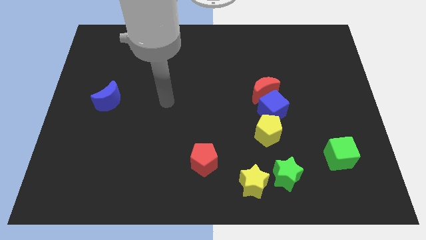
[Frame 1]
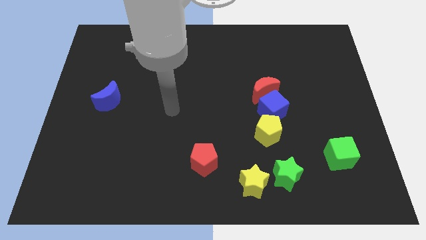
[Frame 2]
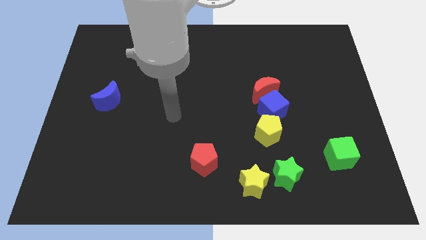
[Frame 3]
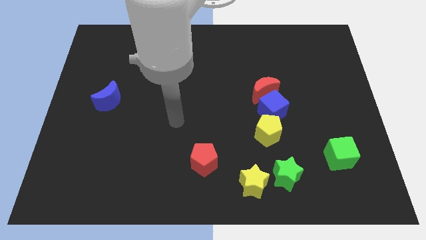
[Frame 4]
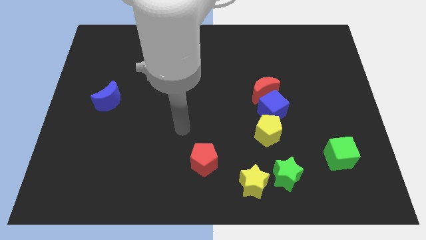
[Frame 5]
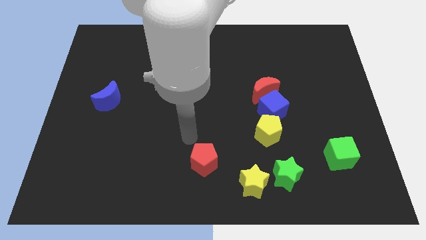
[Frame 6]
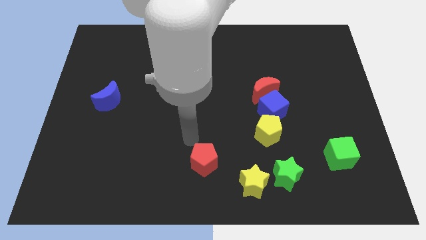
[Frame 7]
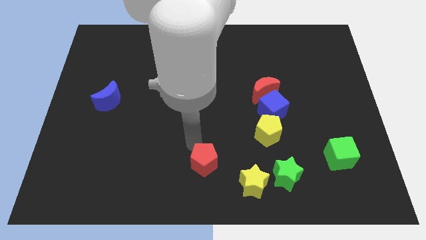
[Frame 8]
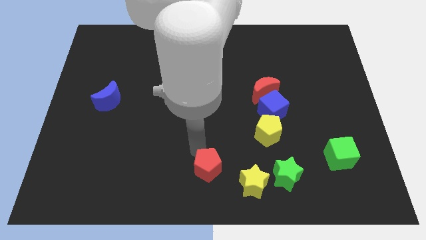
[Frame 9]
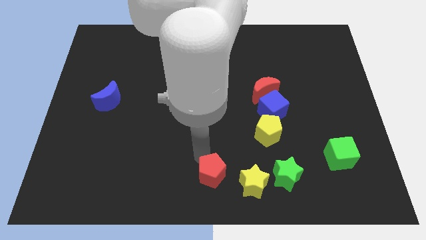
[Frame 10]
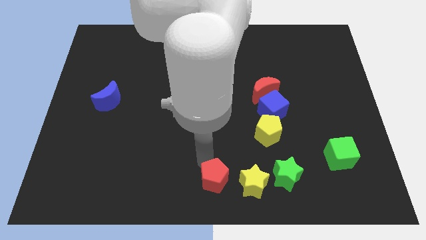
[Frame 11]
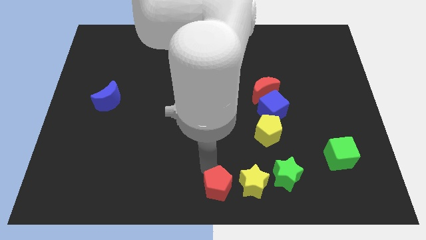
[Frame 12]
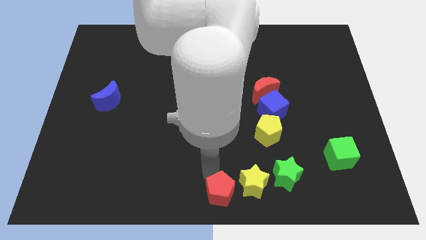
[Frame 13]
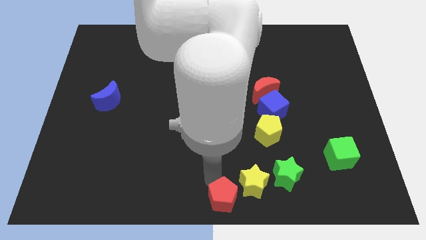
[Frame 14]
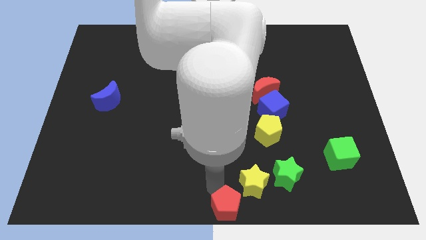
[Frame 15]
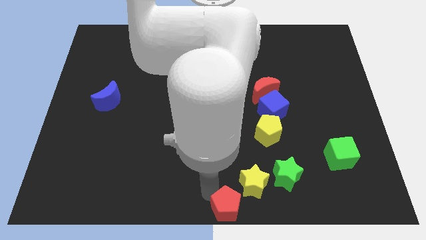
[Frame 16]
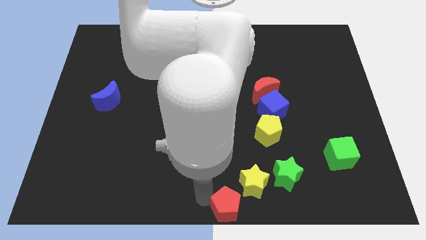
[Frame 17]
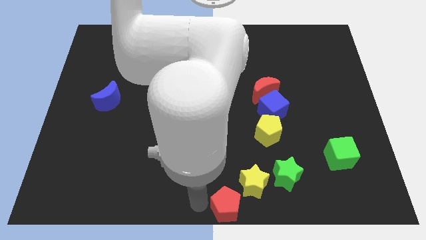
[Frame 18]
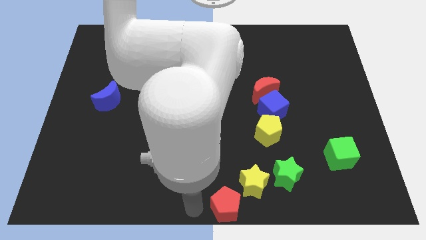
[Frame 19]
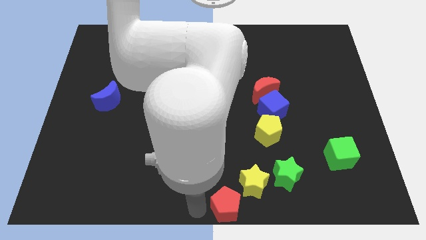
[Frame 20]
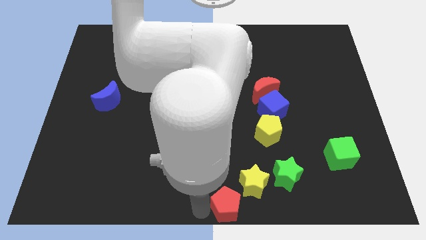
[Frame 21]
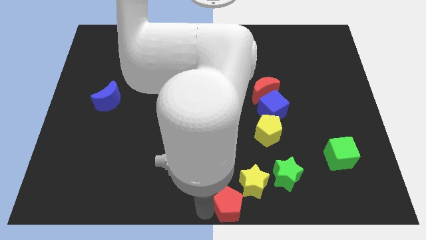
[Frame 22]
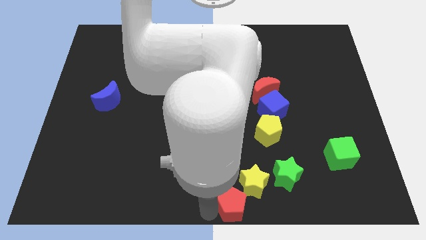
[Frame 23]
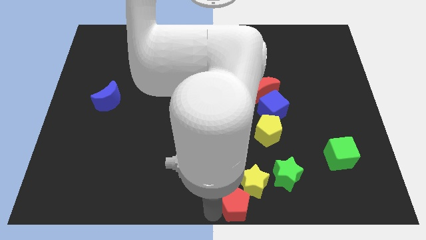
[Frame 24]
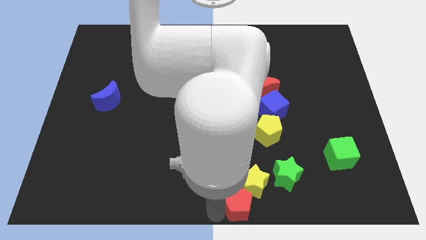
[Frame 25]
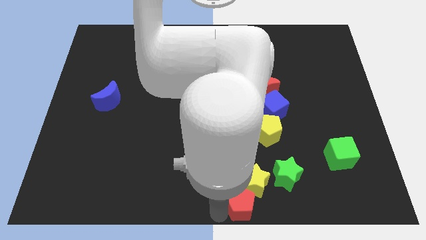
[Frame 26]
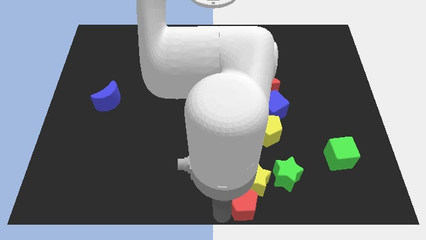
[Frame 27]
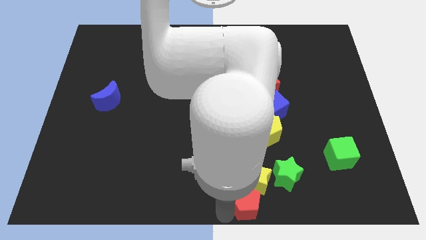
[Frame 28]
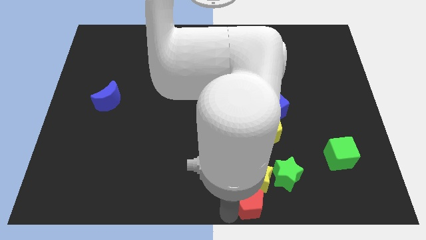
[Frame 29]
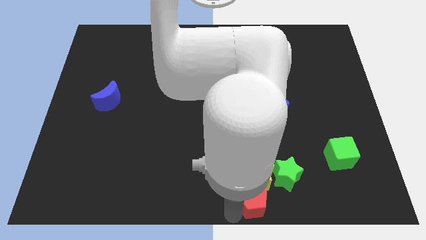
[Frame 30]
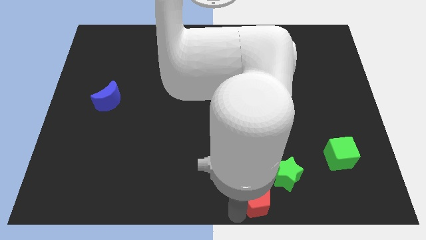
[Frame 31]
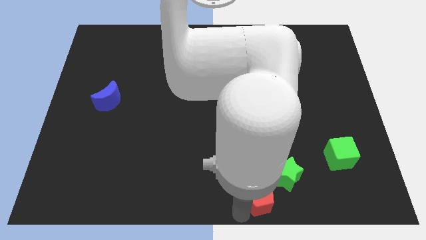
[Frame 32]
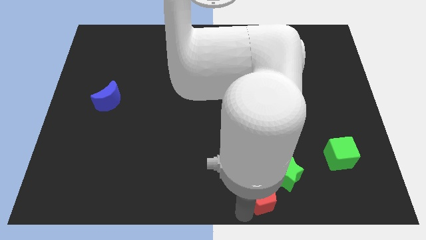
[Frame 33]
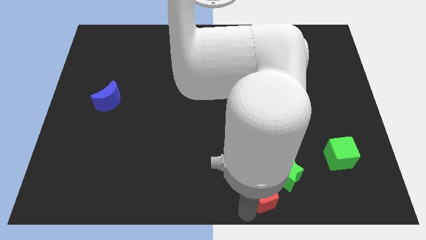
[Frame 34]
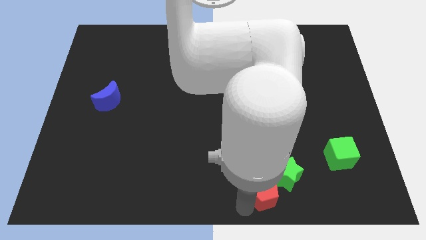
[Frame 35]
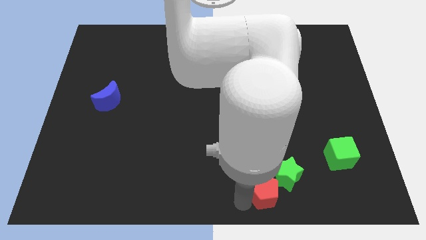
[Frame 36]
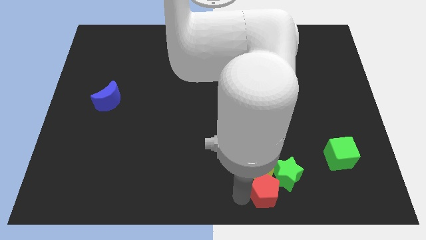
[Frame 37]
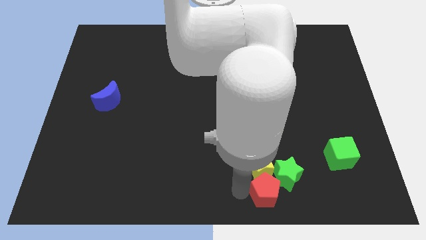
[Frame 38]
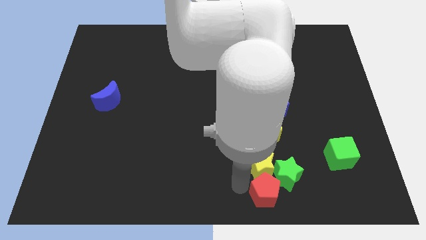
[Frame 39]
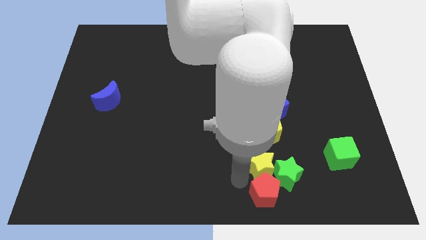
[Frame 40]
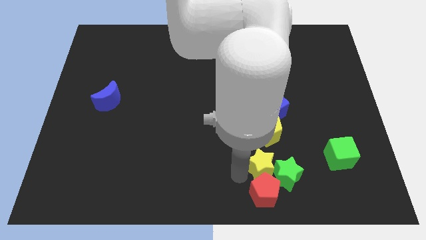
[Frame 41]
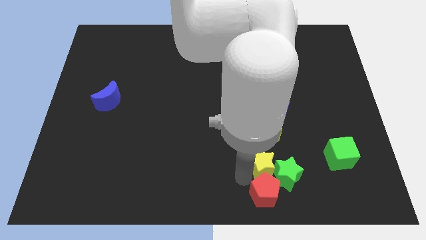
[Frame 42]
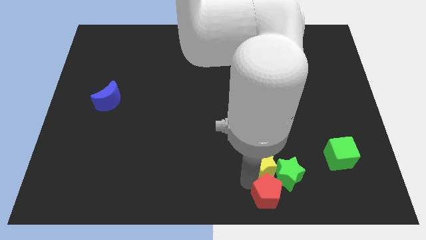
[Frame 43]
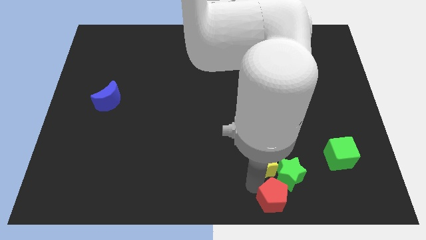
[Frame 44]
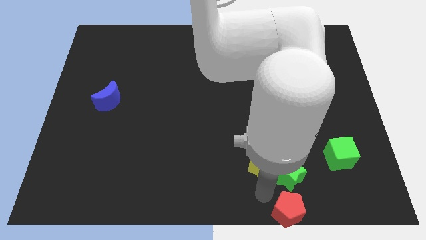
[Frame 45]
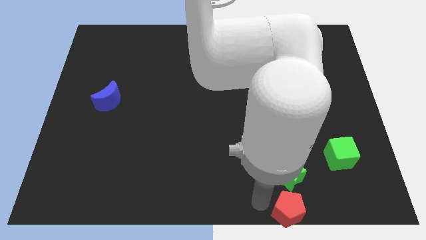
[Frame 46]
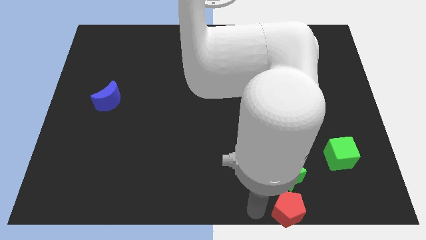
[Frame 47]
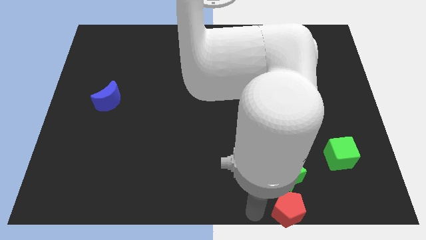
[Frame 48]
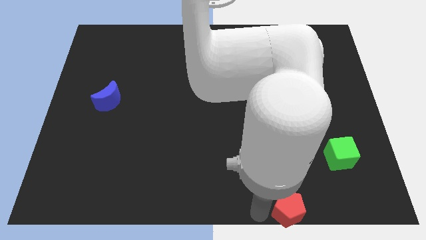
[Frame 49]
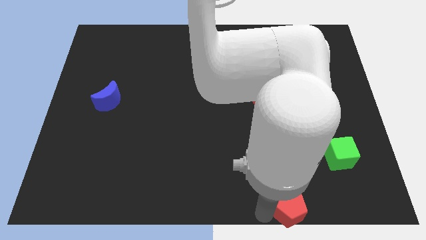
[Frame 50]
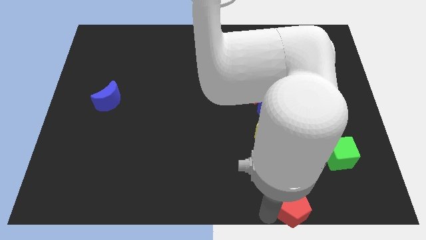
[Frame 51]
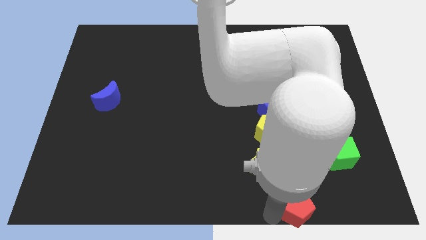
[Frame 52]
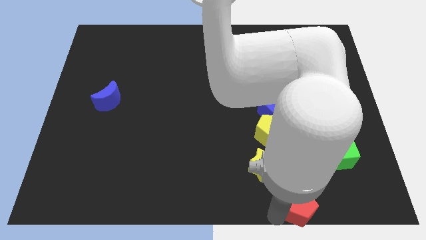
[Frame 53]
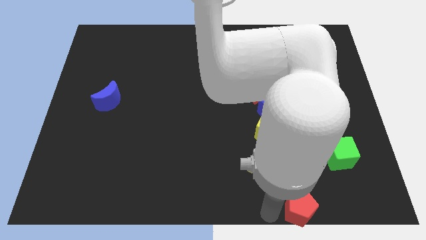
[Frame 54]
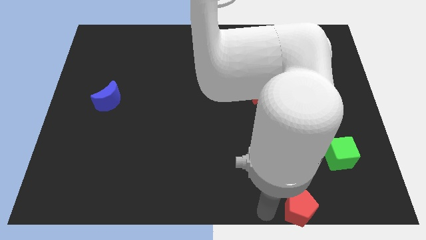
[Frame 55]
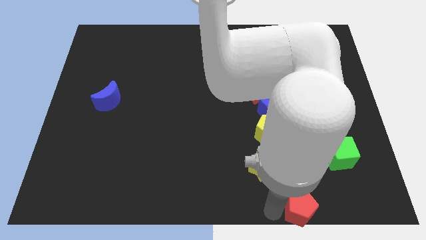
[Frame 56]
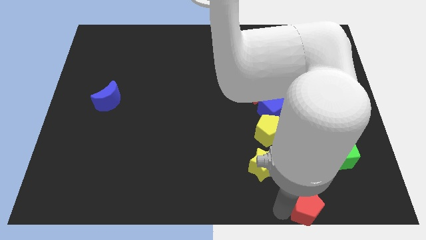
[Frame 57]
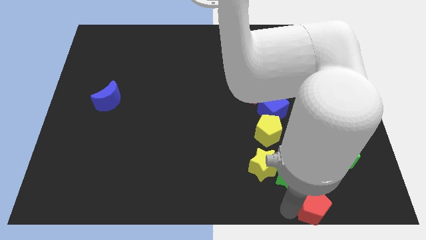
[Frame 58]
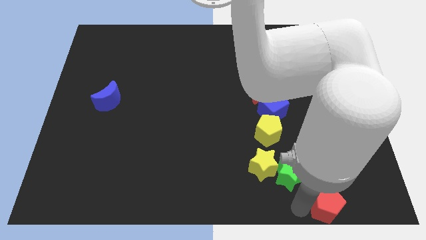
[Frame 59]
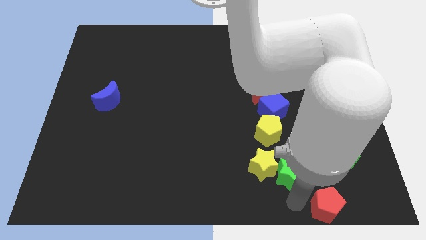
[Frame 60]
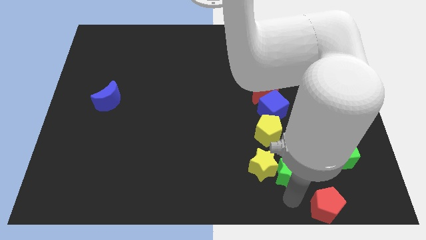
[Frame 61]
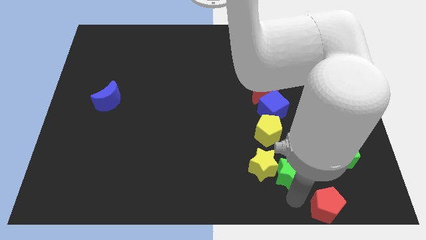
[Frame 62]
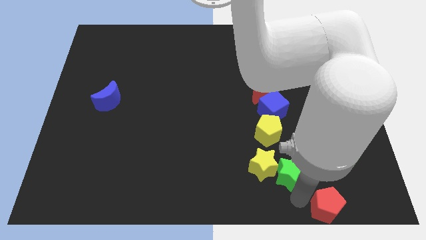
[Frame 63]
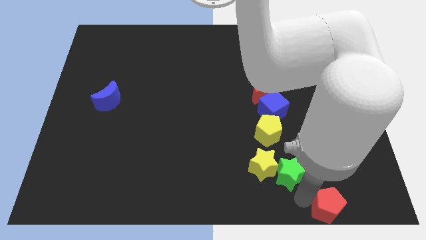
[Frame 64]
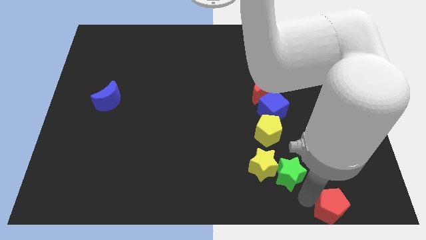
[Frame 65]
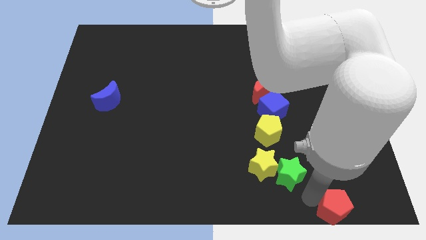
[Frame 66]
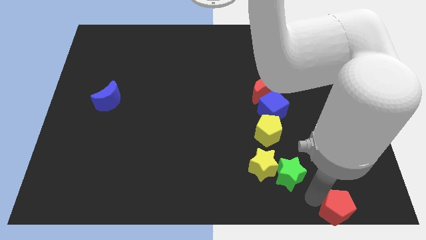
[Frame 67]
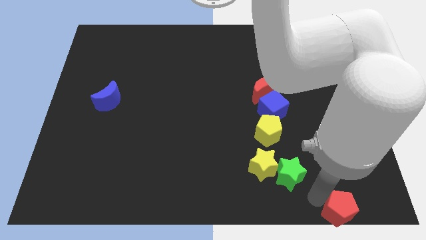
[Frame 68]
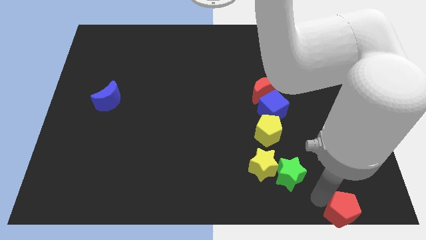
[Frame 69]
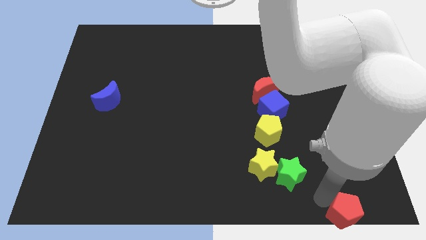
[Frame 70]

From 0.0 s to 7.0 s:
slide the red pentagon to the bottom right of the board
